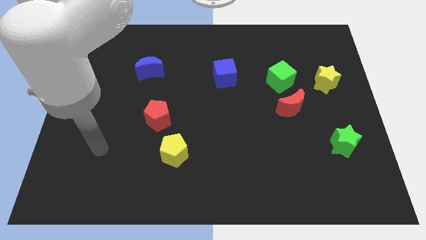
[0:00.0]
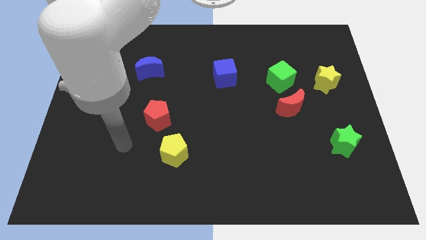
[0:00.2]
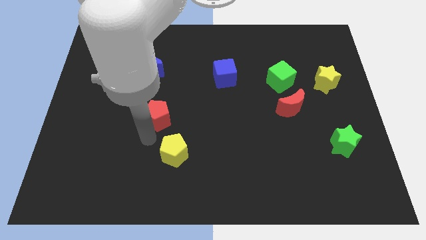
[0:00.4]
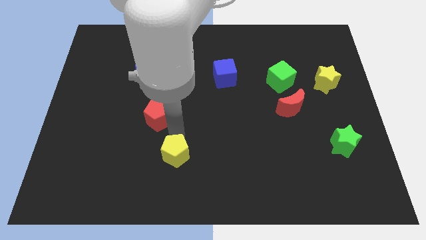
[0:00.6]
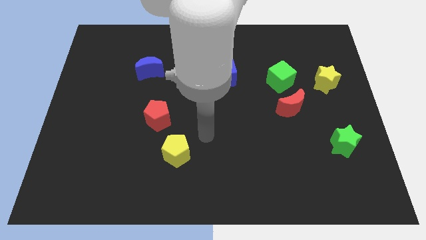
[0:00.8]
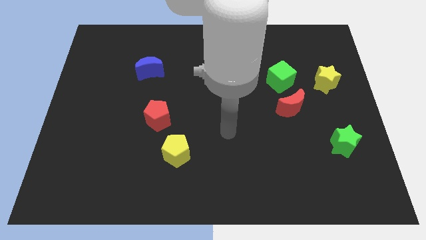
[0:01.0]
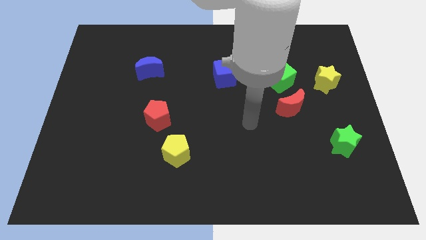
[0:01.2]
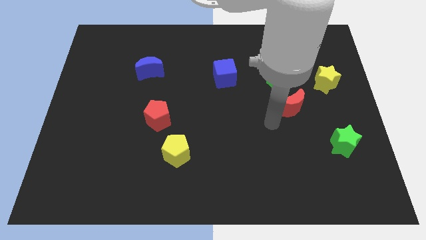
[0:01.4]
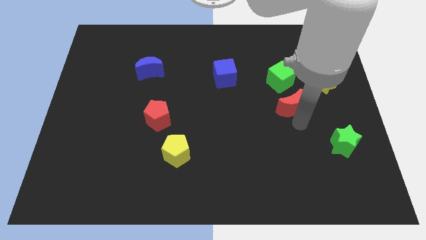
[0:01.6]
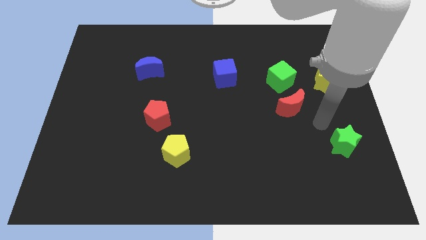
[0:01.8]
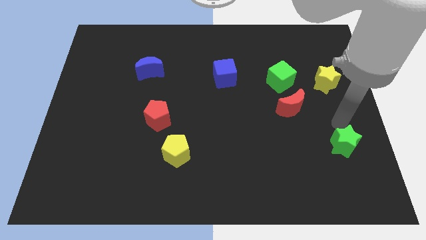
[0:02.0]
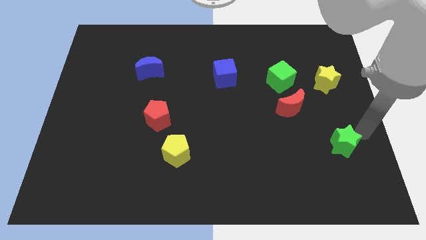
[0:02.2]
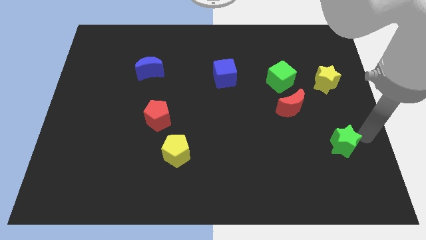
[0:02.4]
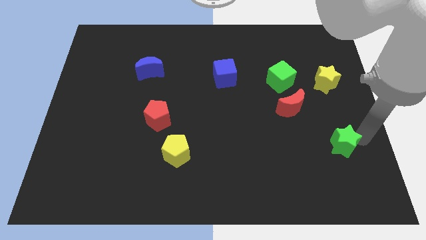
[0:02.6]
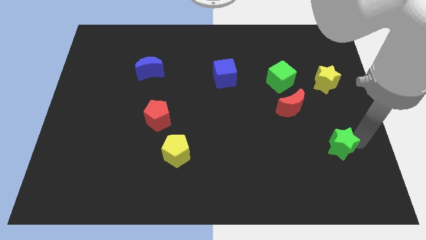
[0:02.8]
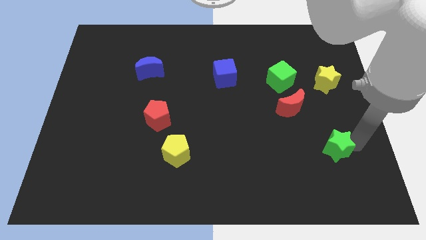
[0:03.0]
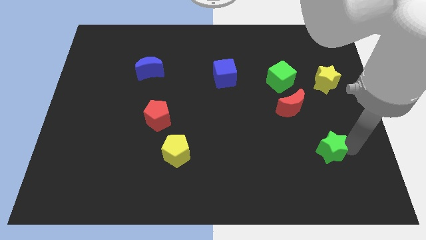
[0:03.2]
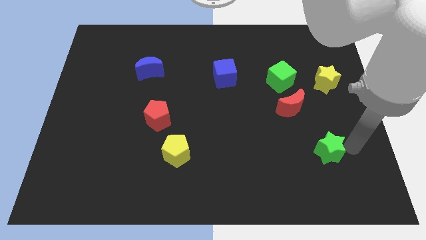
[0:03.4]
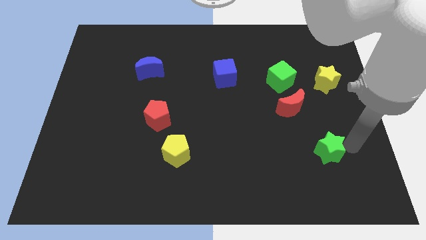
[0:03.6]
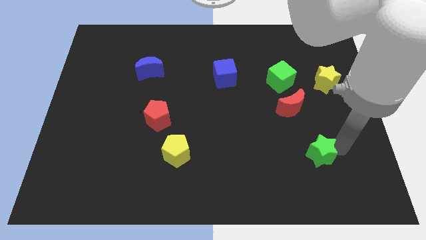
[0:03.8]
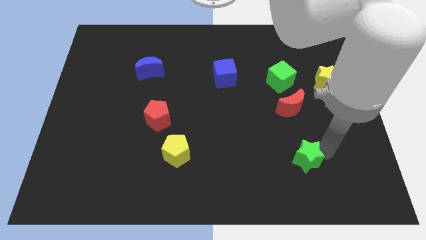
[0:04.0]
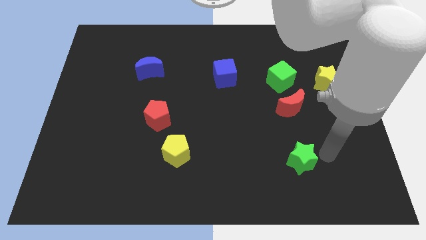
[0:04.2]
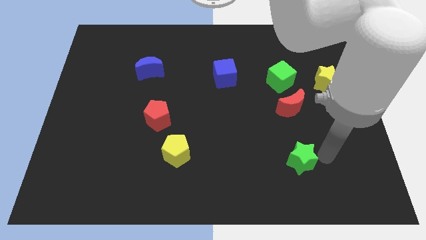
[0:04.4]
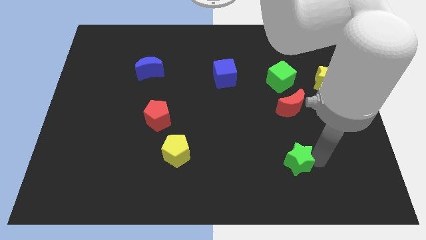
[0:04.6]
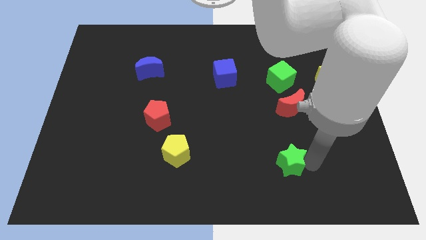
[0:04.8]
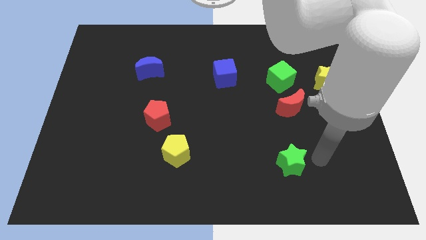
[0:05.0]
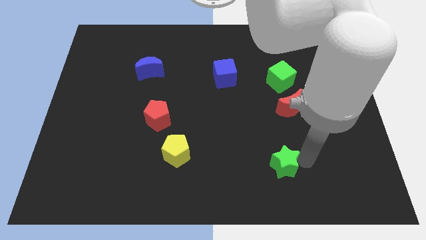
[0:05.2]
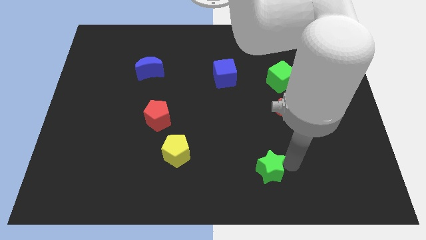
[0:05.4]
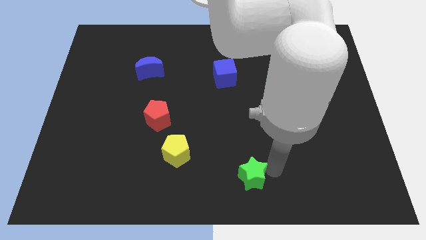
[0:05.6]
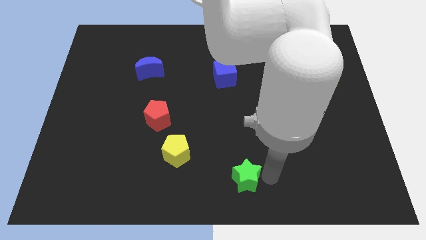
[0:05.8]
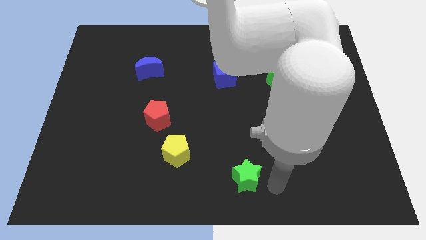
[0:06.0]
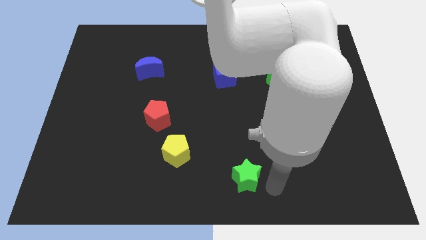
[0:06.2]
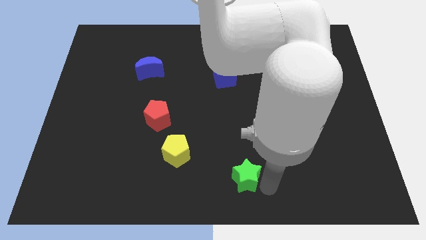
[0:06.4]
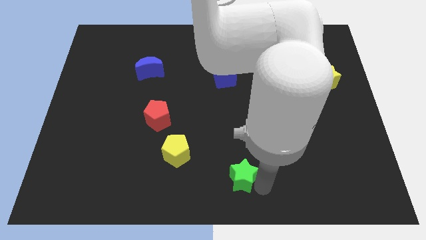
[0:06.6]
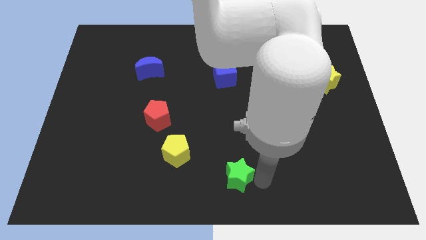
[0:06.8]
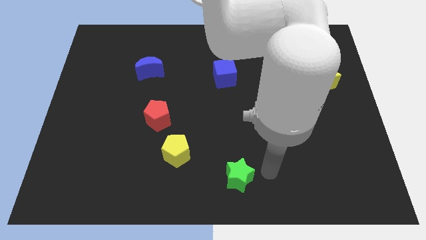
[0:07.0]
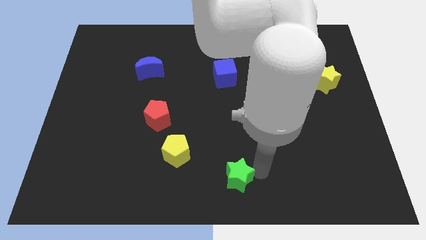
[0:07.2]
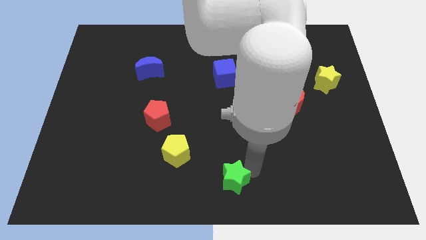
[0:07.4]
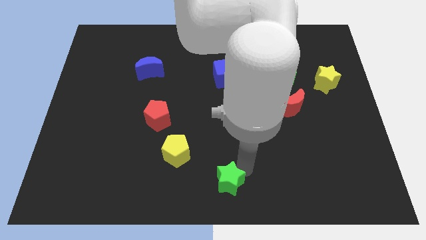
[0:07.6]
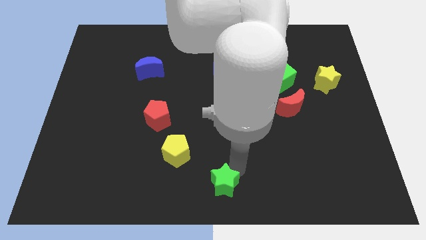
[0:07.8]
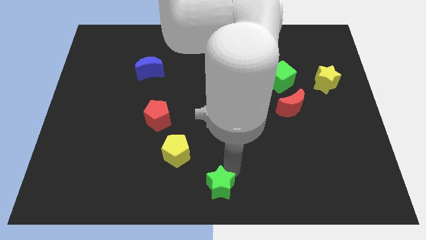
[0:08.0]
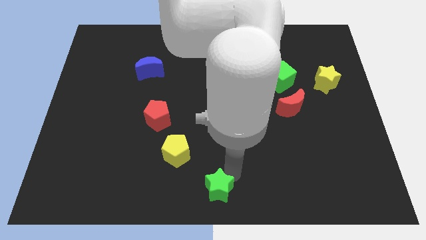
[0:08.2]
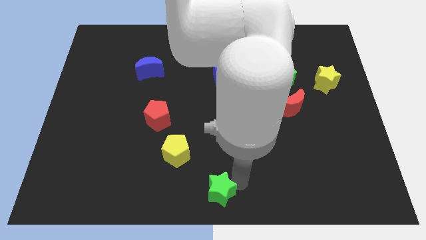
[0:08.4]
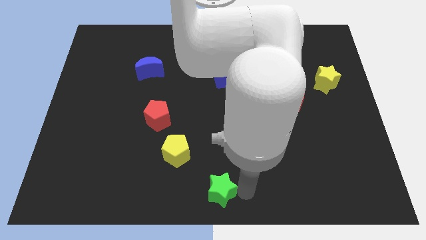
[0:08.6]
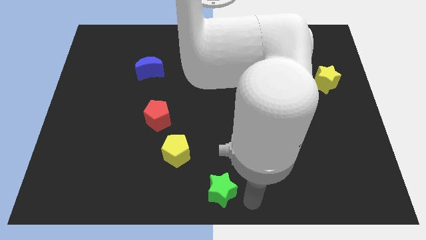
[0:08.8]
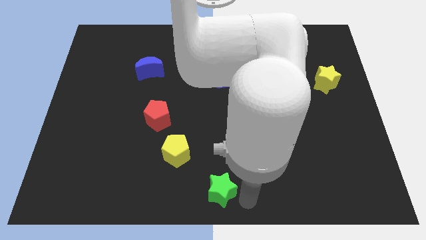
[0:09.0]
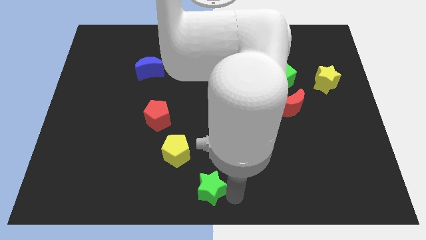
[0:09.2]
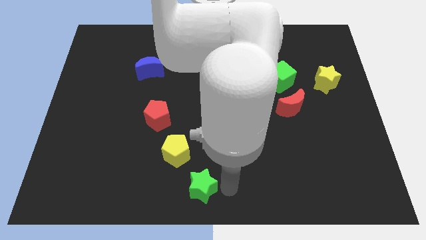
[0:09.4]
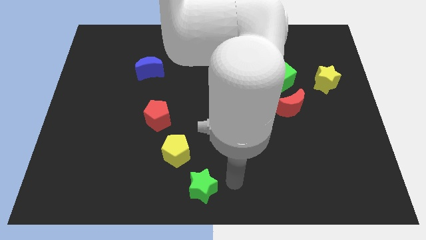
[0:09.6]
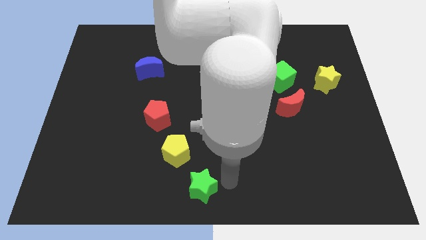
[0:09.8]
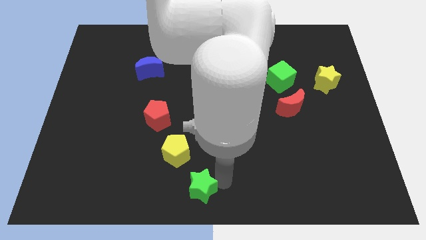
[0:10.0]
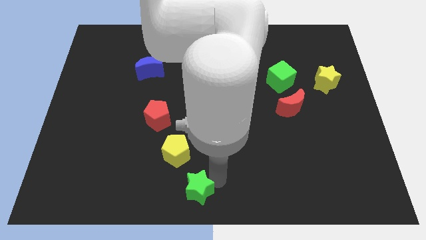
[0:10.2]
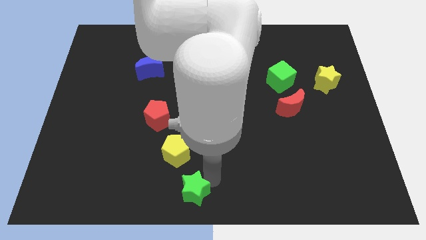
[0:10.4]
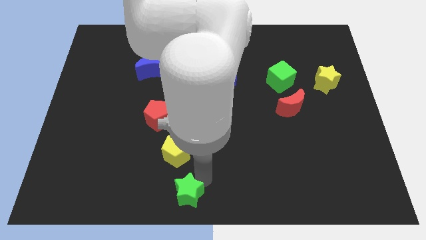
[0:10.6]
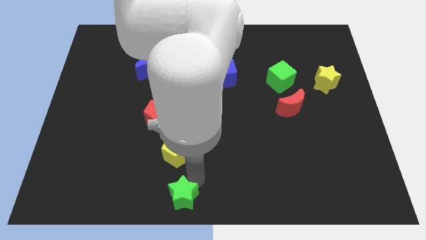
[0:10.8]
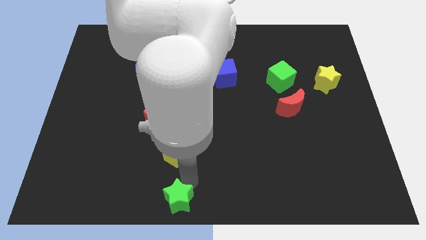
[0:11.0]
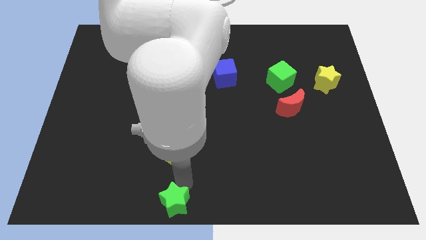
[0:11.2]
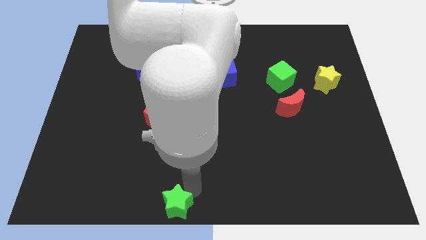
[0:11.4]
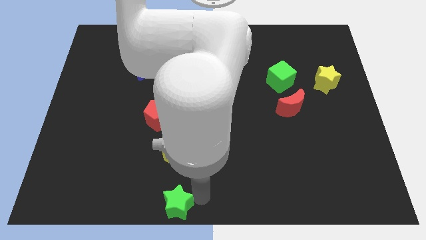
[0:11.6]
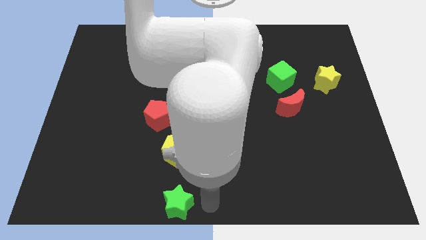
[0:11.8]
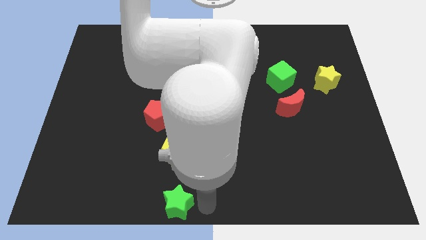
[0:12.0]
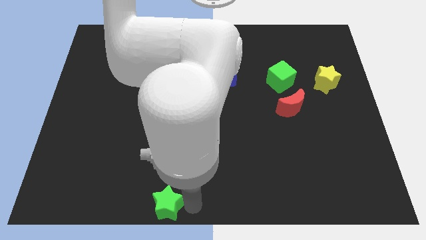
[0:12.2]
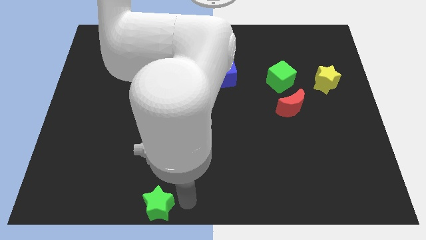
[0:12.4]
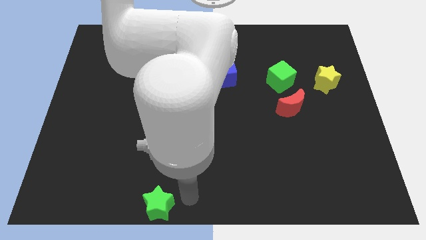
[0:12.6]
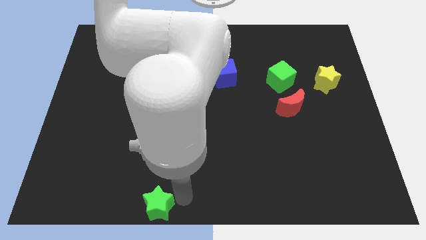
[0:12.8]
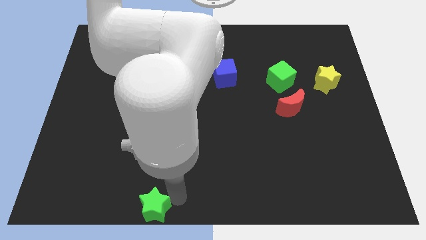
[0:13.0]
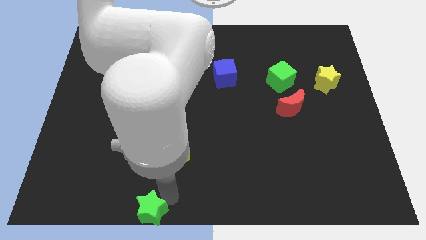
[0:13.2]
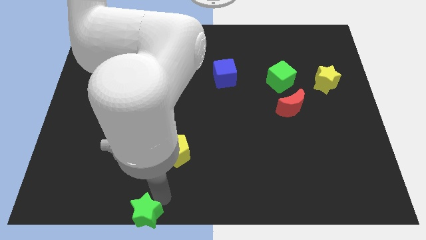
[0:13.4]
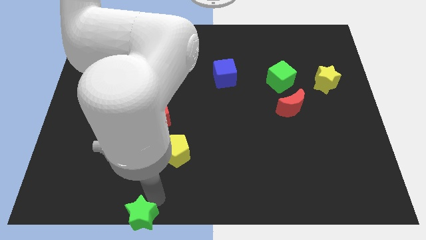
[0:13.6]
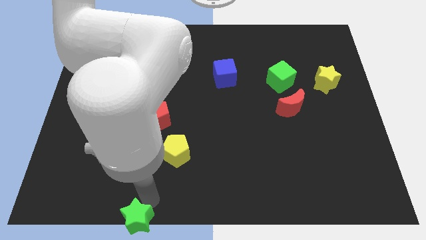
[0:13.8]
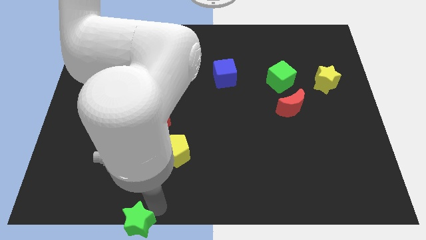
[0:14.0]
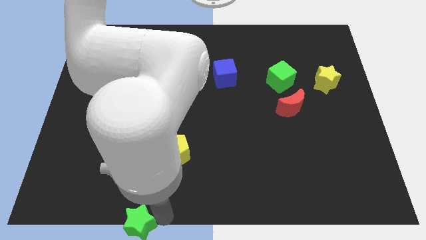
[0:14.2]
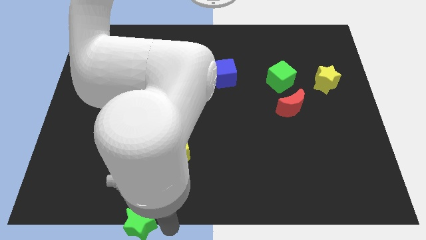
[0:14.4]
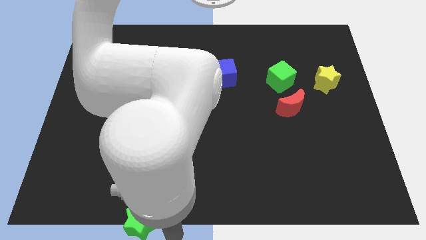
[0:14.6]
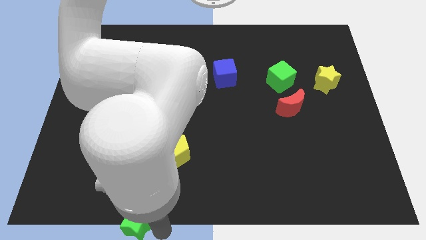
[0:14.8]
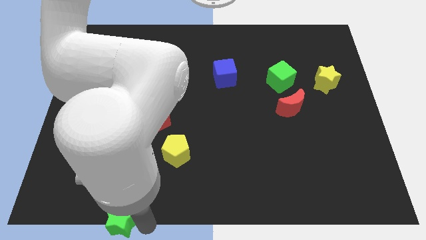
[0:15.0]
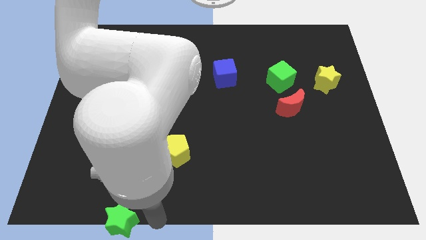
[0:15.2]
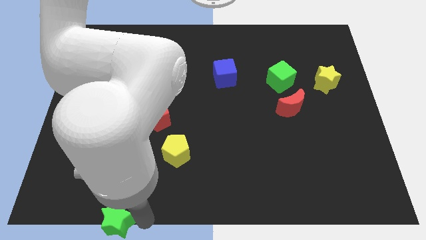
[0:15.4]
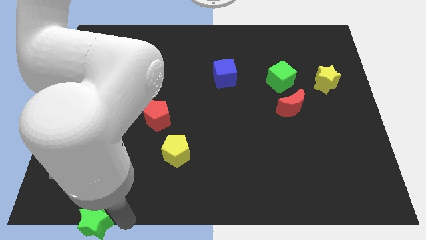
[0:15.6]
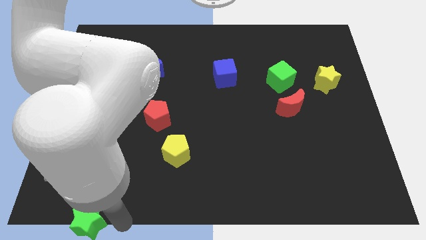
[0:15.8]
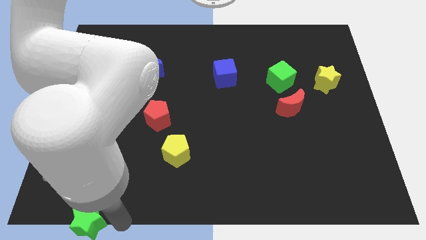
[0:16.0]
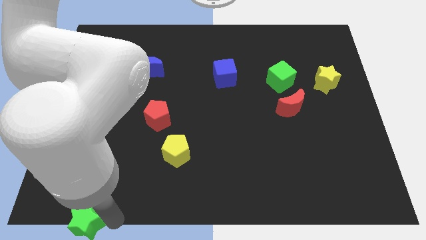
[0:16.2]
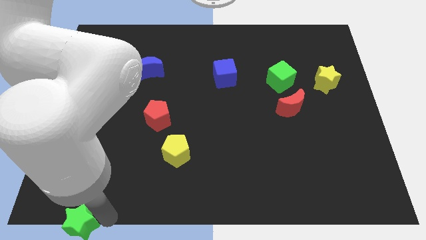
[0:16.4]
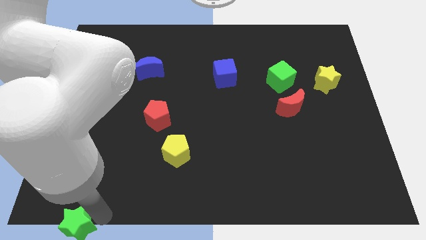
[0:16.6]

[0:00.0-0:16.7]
move the green star to the lower left corner
